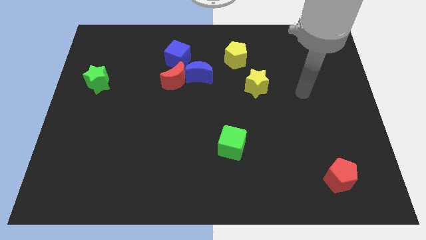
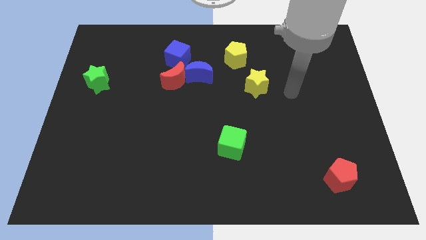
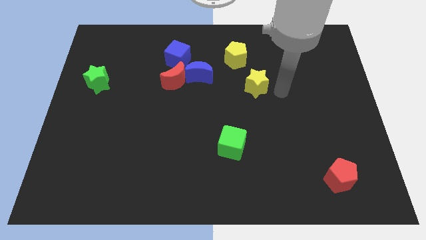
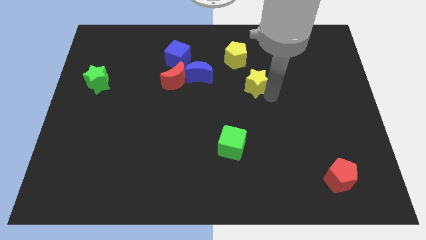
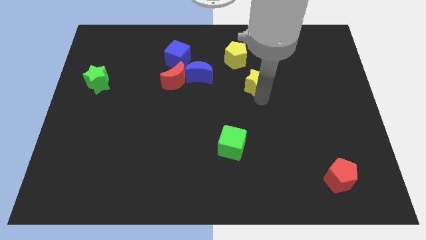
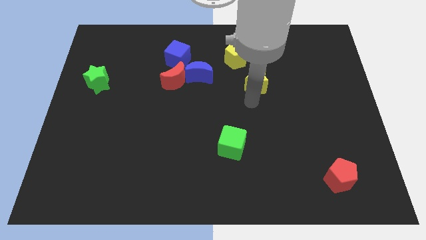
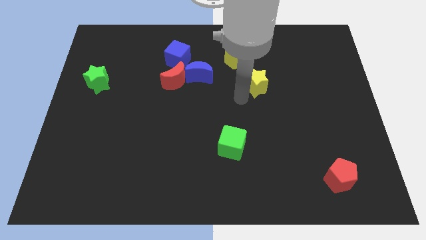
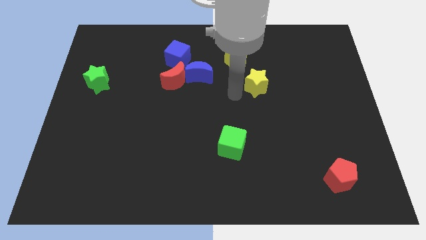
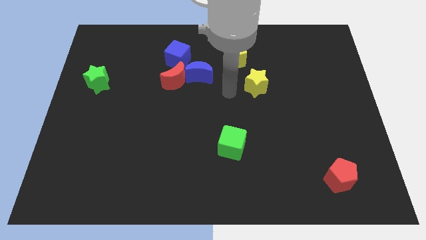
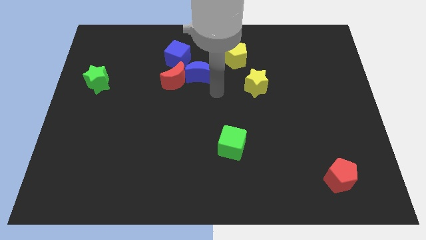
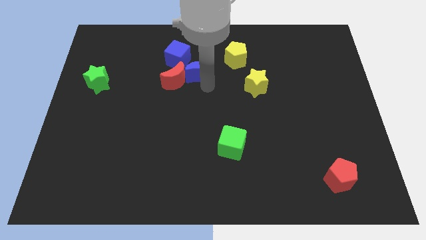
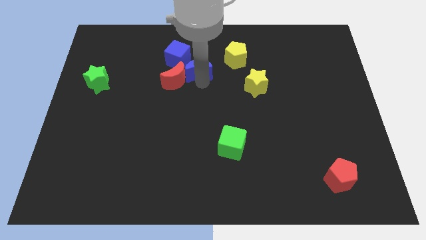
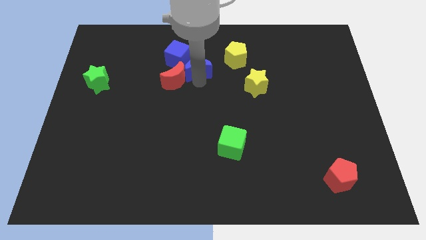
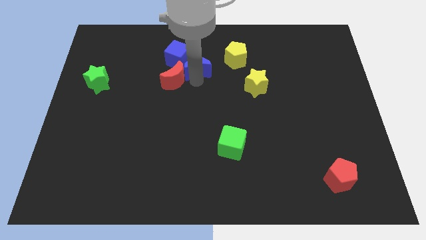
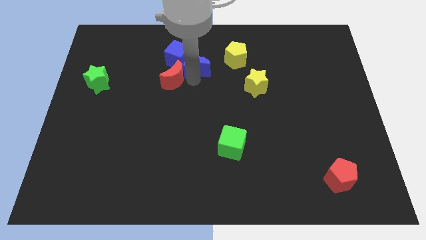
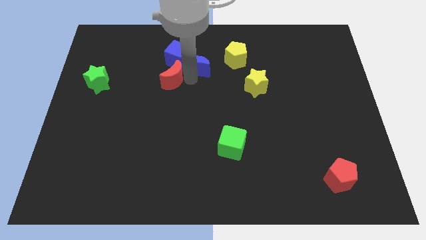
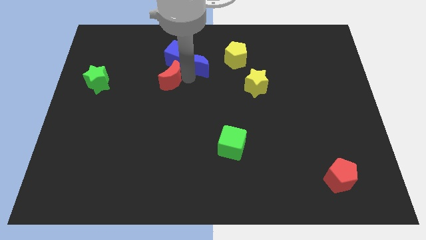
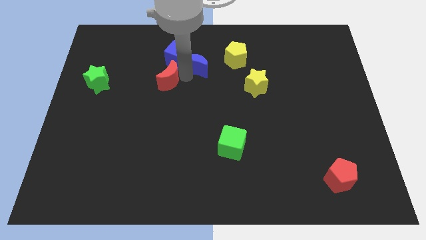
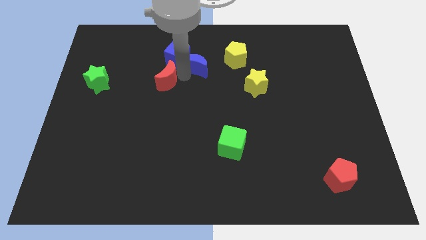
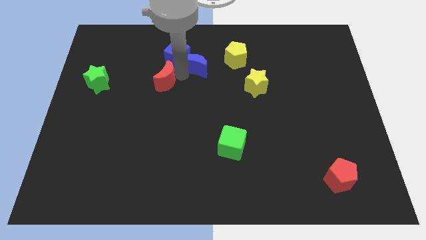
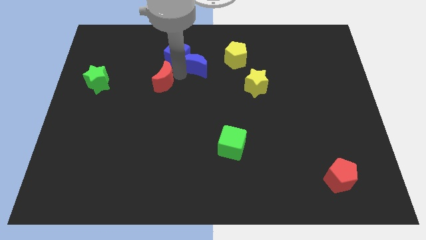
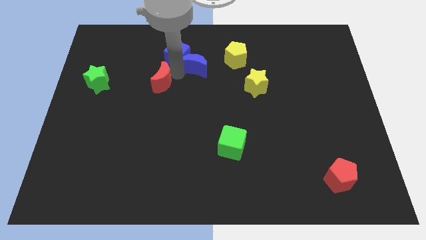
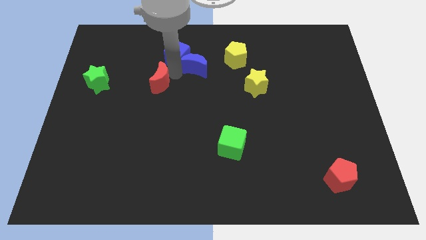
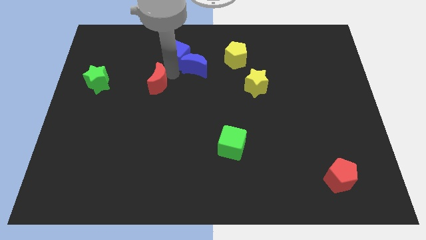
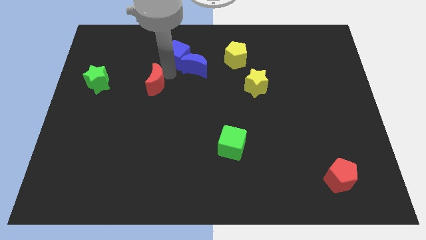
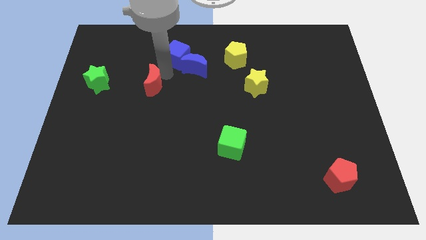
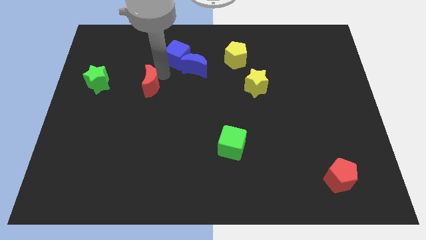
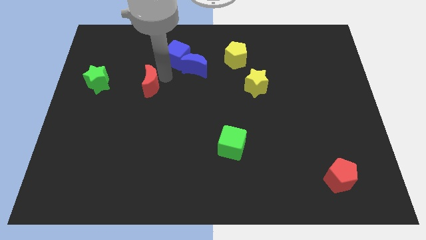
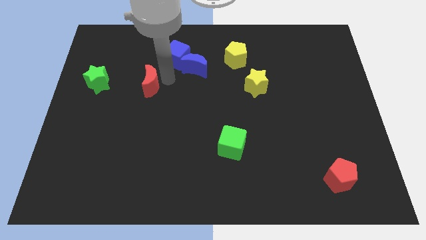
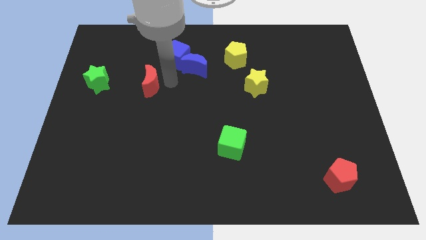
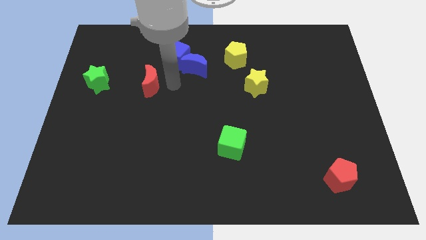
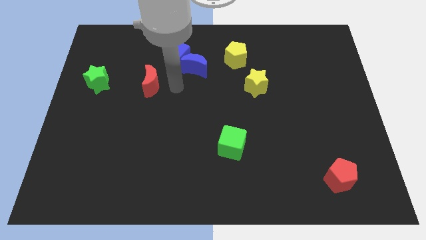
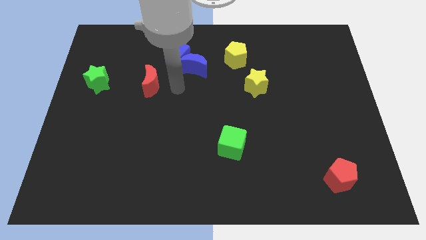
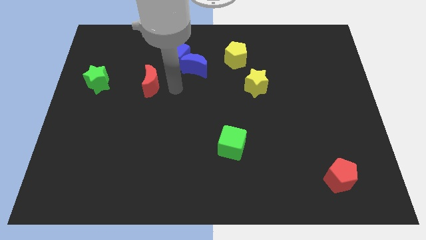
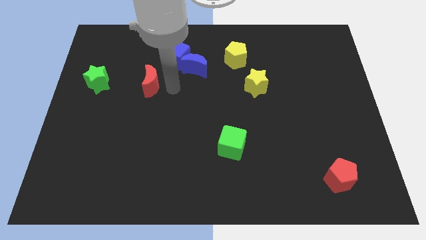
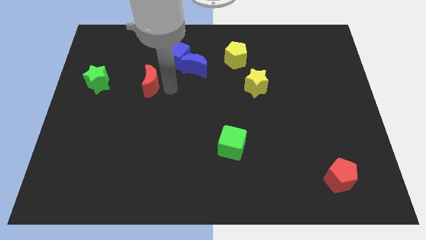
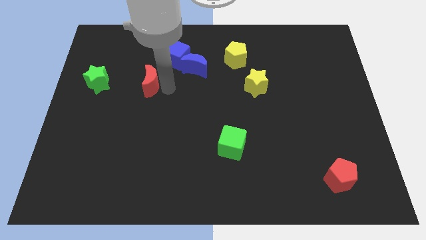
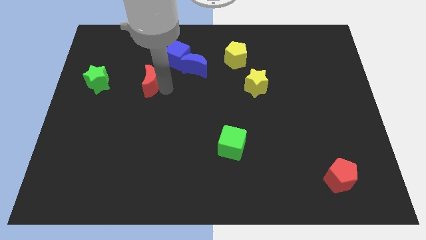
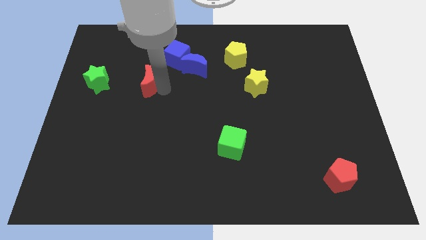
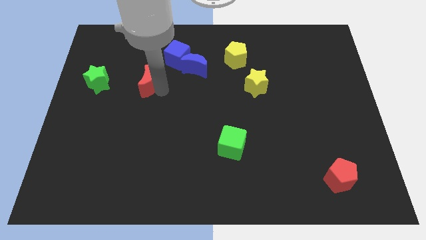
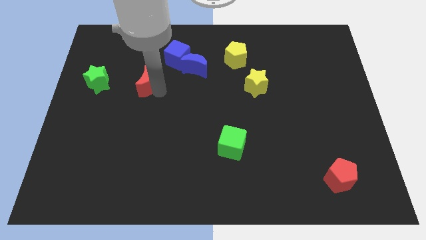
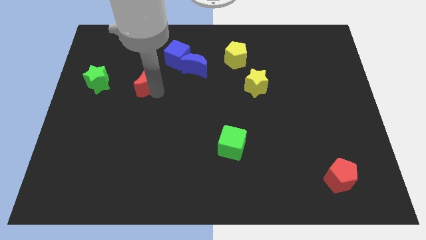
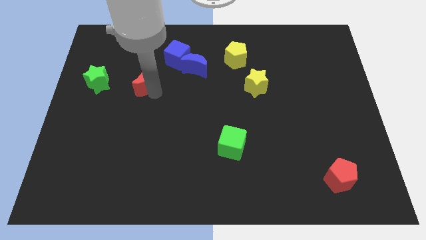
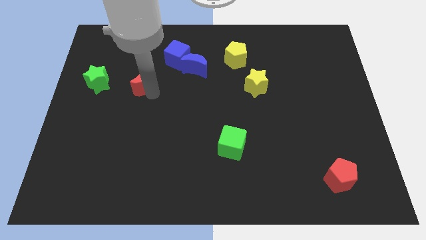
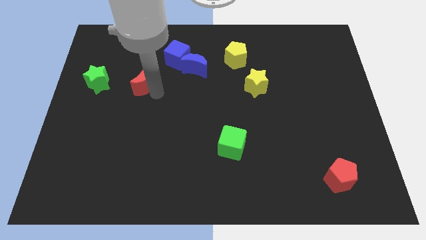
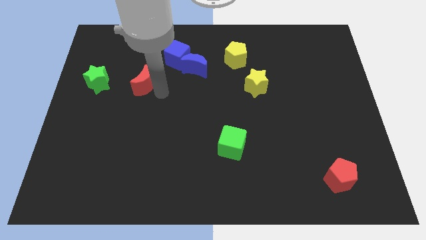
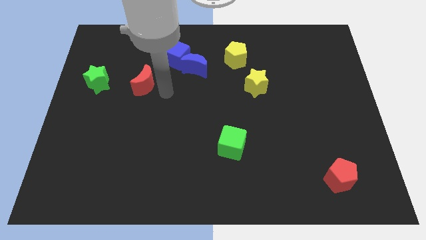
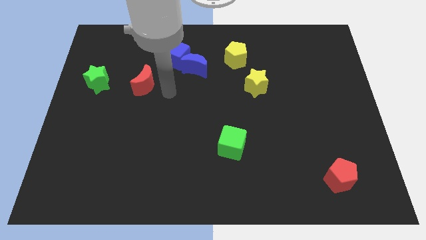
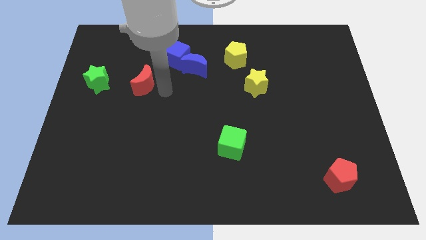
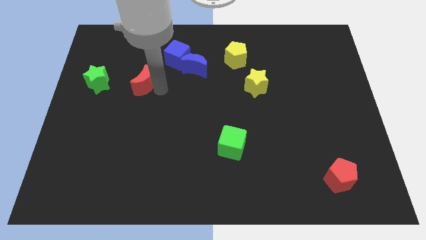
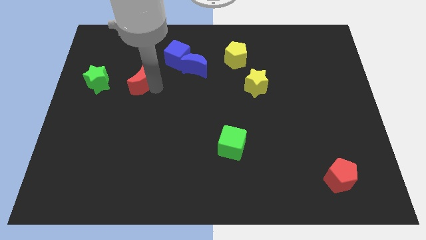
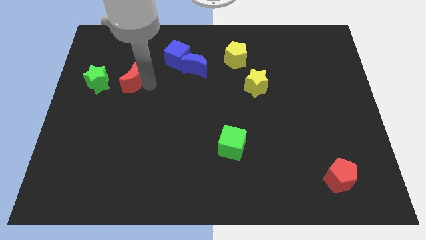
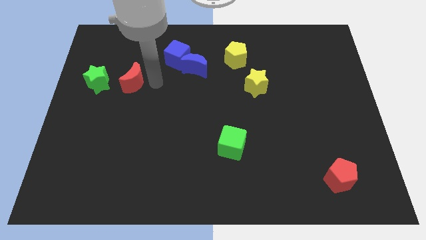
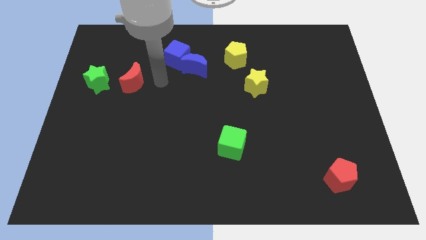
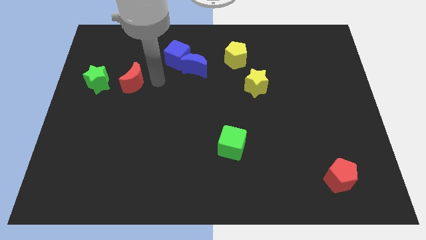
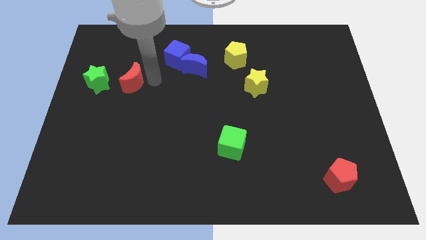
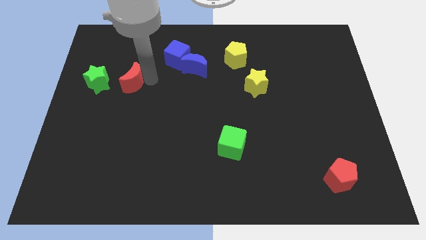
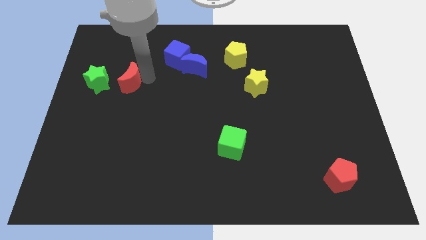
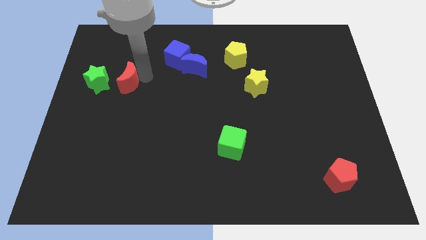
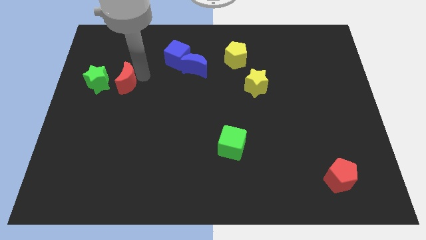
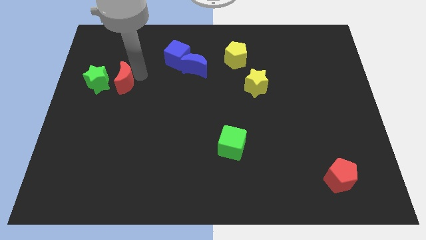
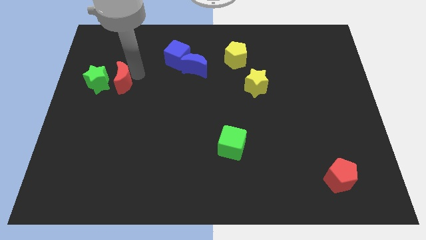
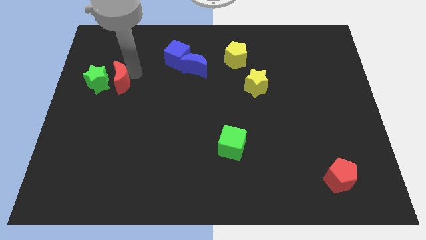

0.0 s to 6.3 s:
push the red moon close to the green star
